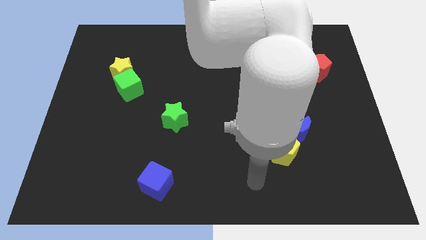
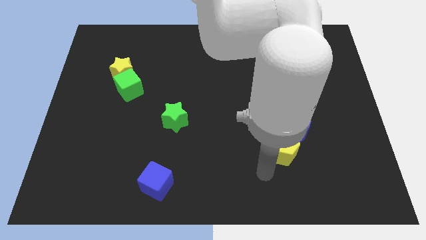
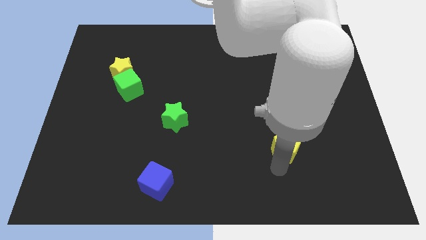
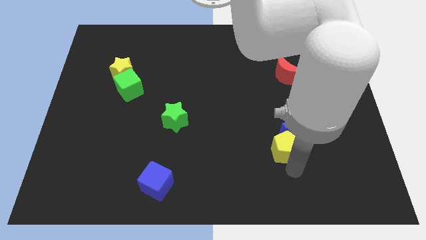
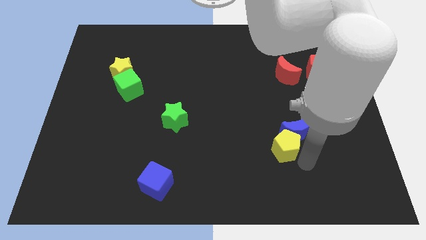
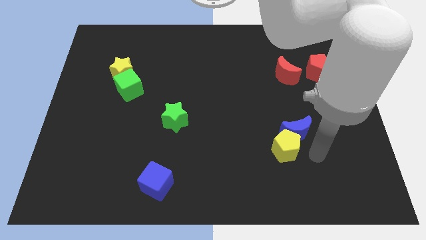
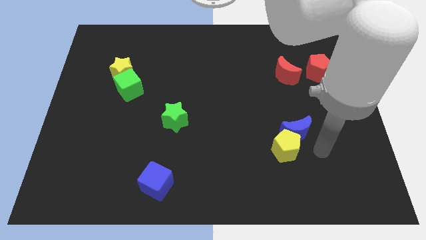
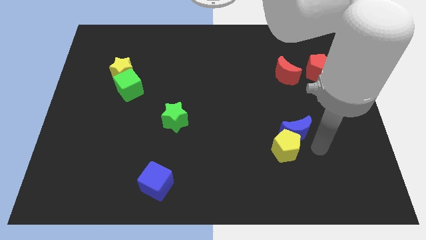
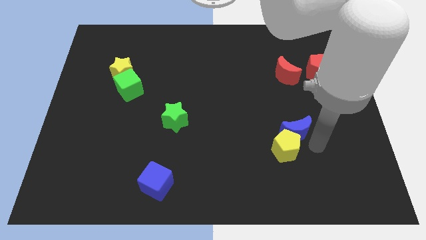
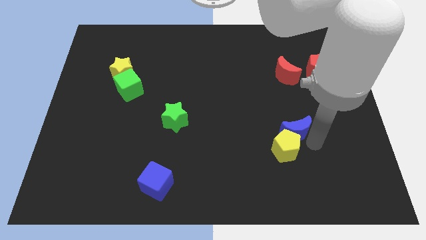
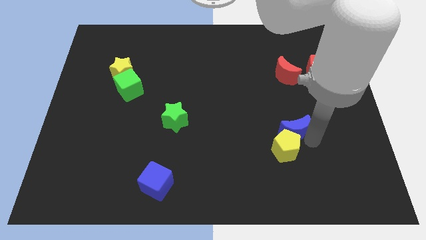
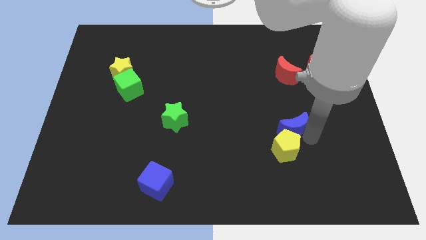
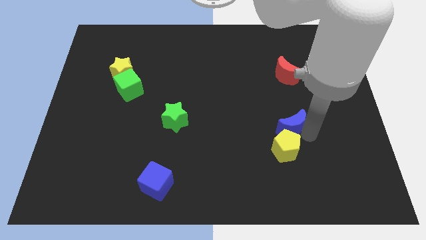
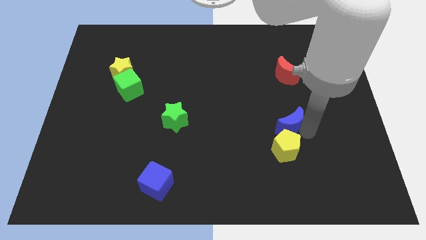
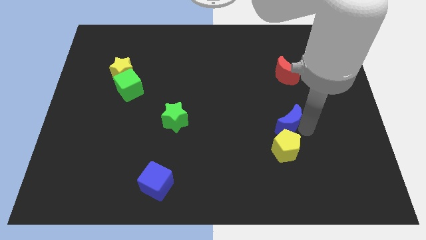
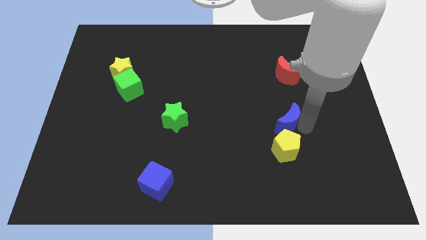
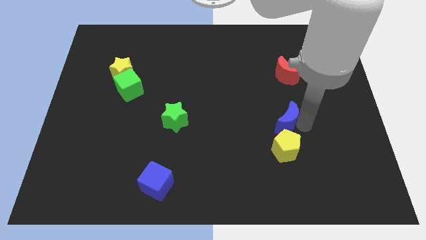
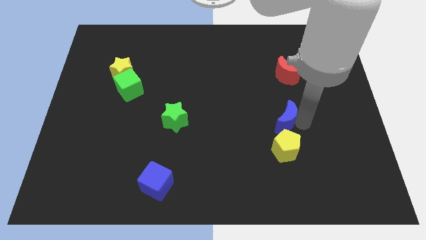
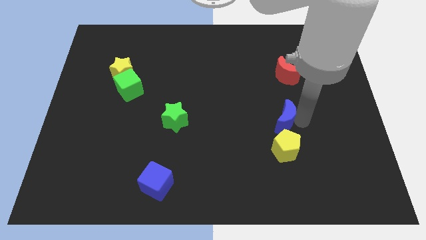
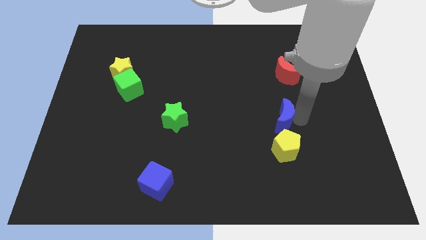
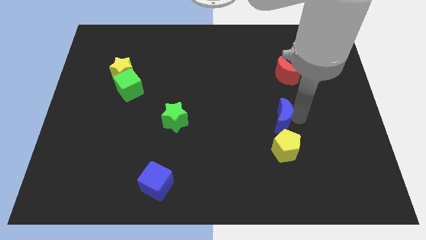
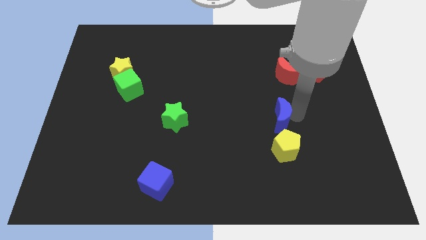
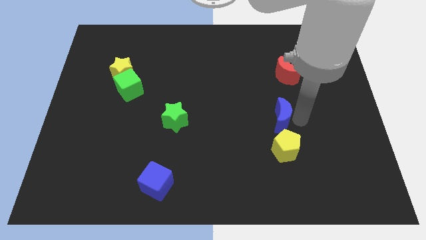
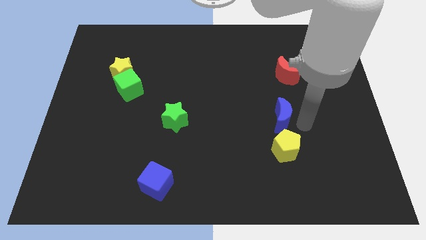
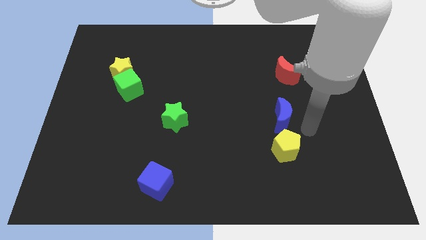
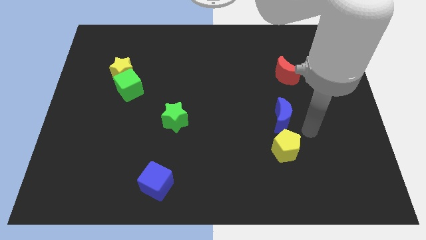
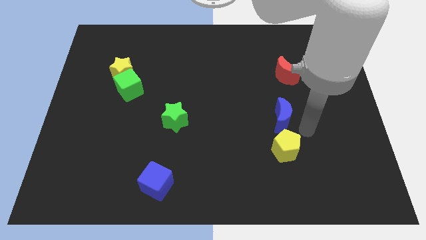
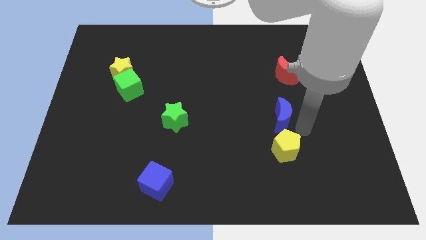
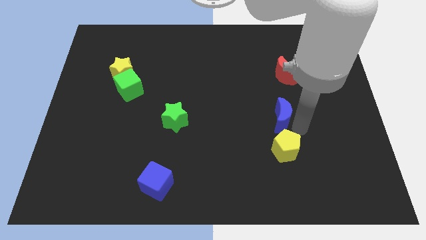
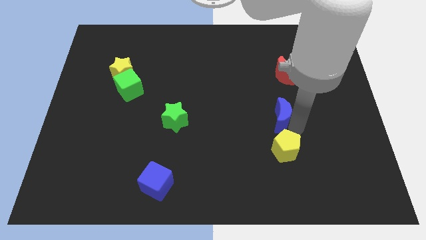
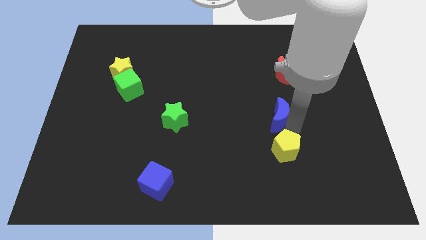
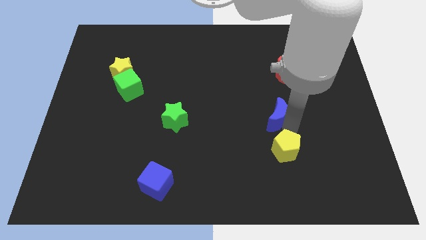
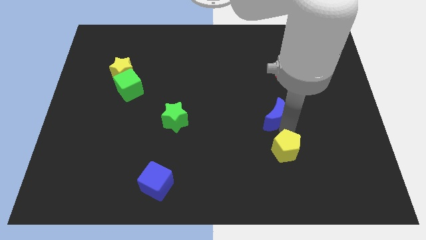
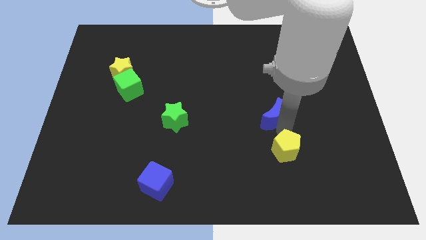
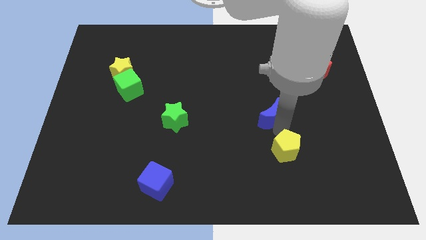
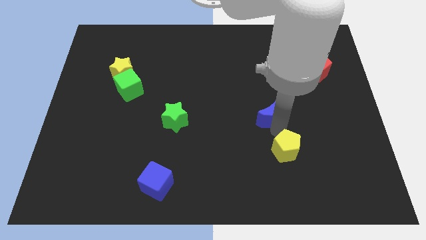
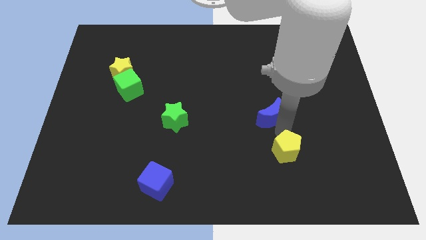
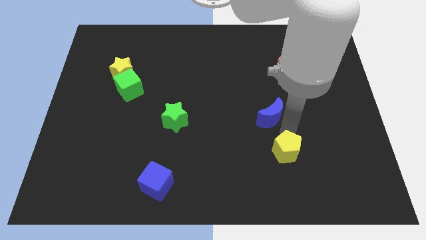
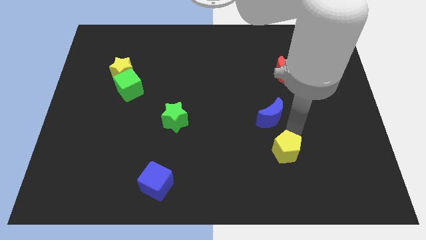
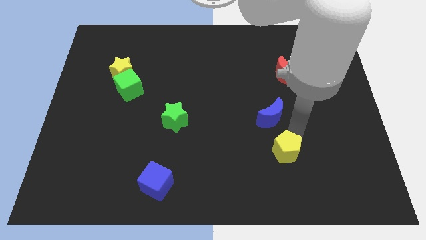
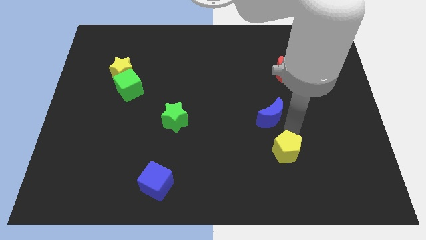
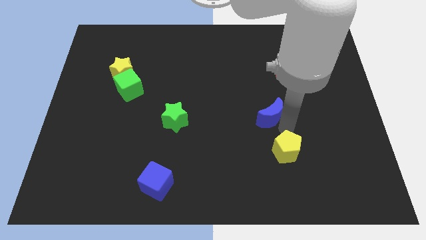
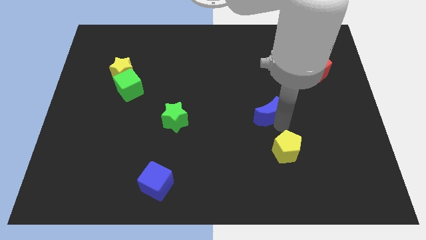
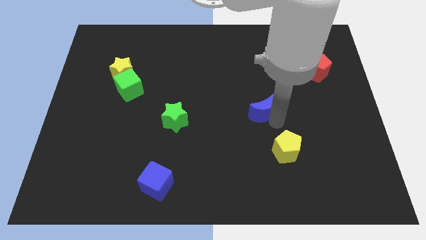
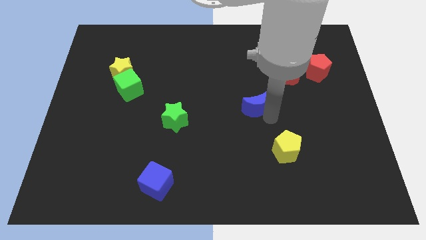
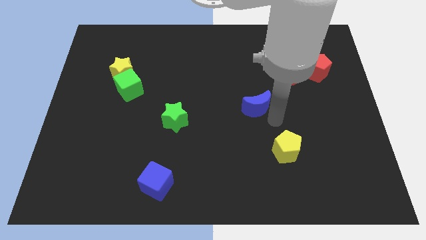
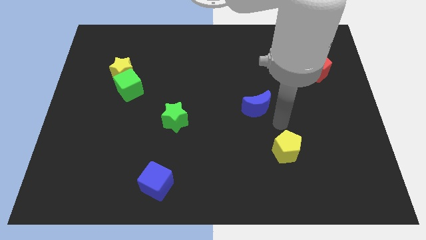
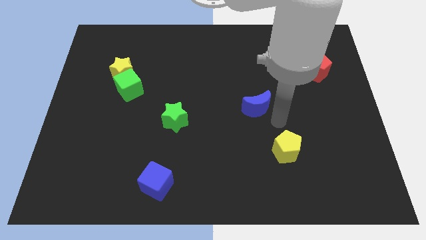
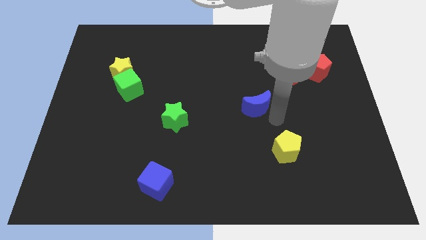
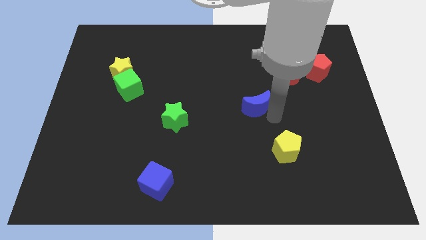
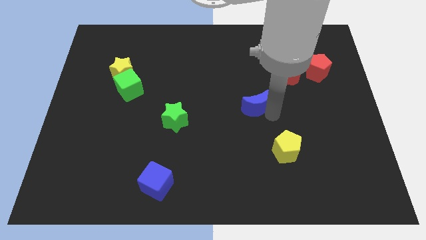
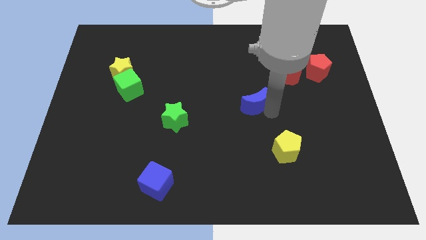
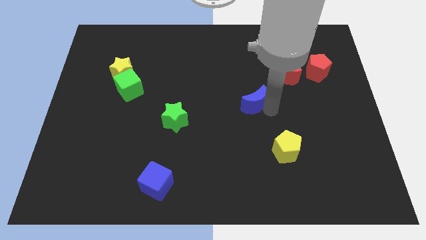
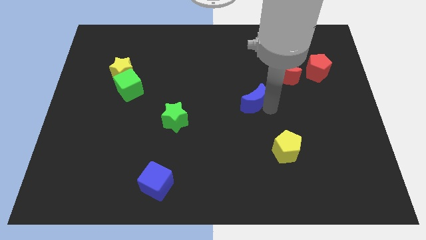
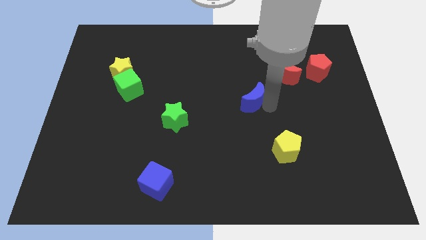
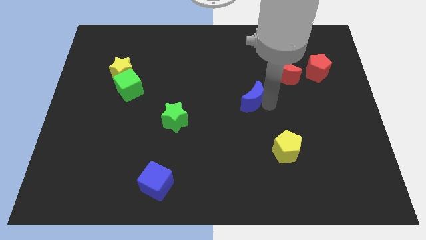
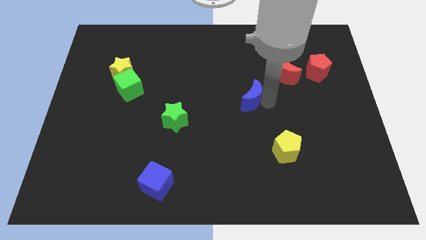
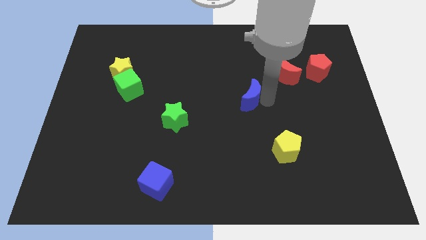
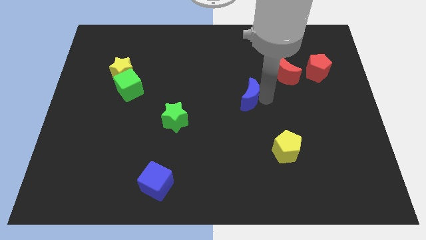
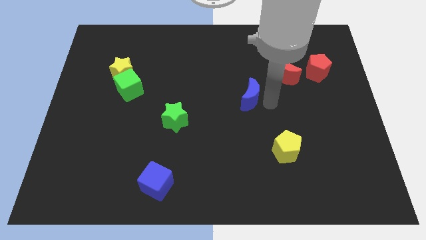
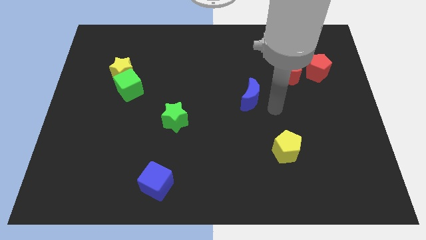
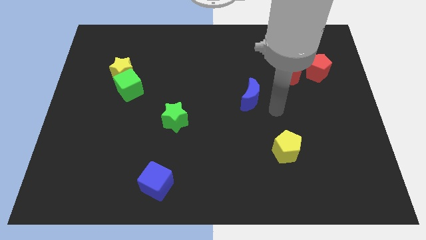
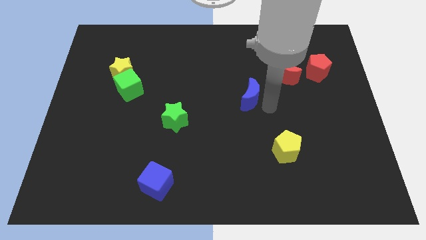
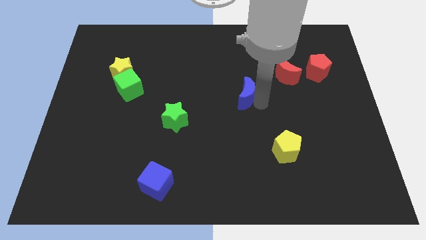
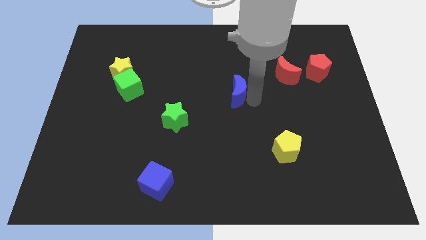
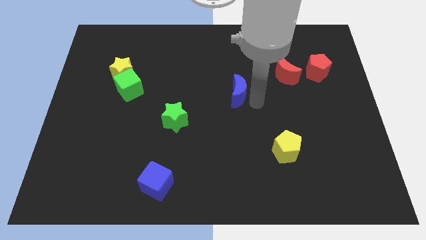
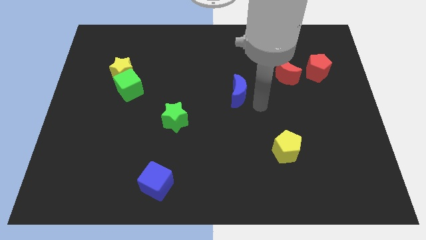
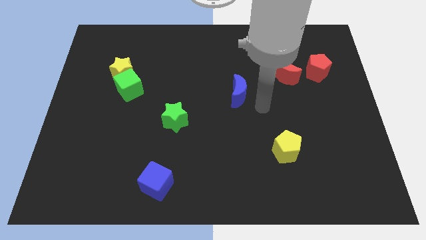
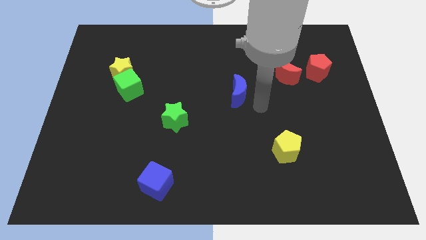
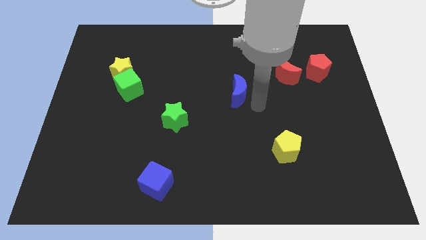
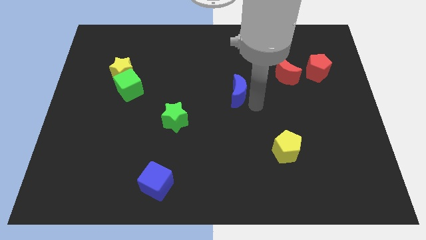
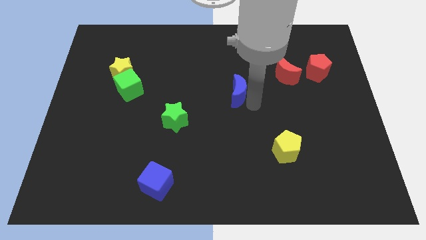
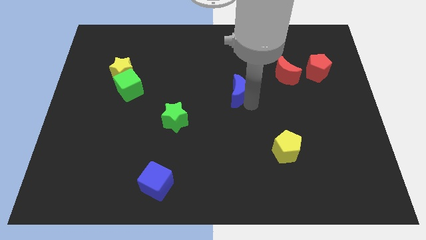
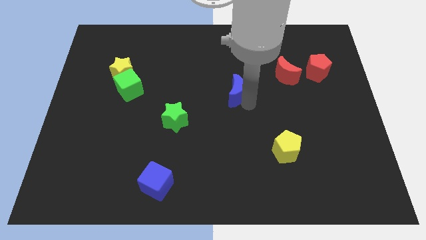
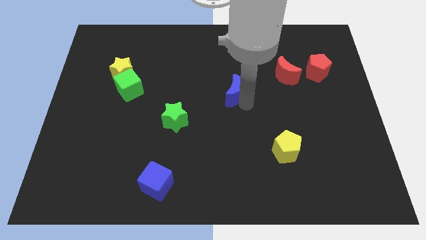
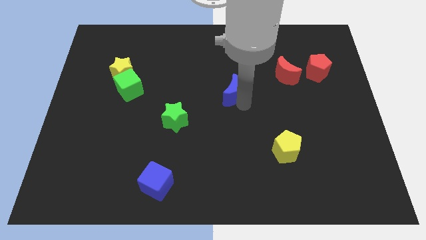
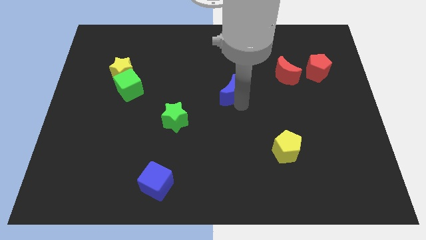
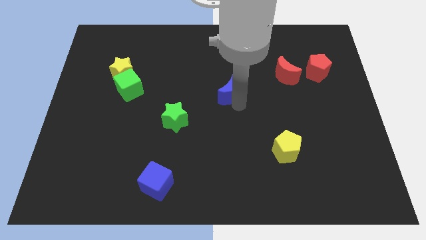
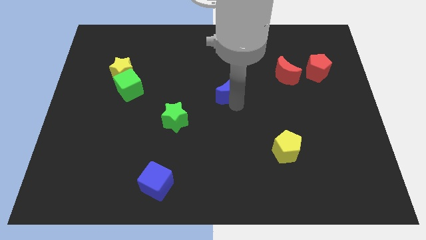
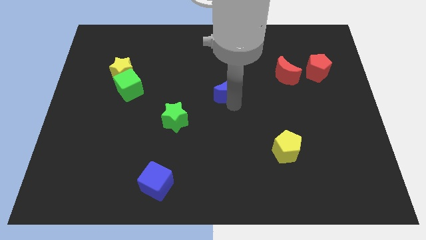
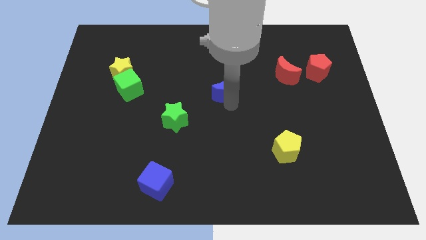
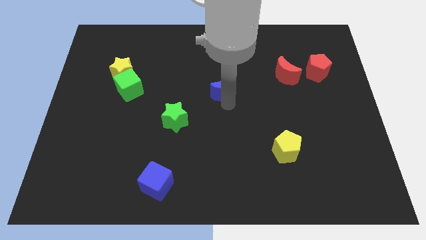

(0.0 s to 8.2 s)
push the blue moon diagonally upwards and to the left
